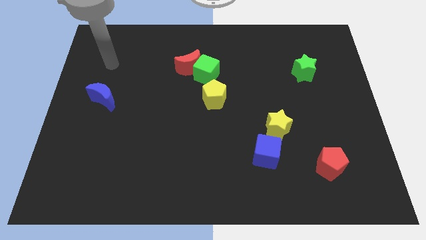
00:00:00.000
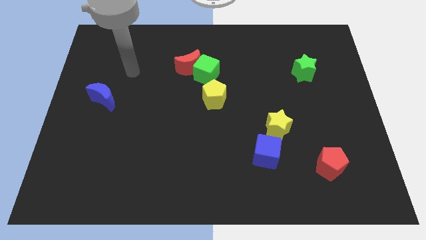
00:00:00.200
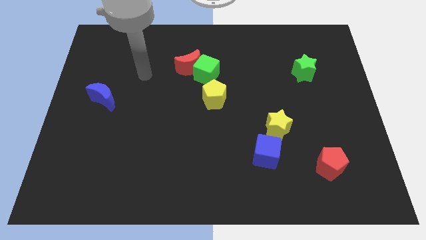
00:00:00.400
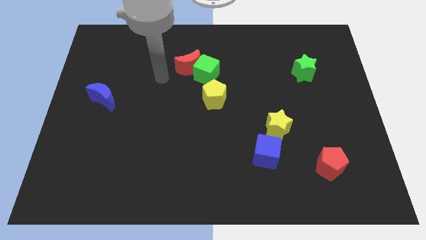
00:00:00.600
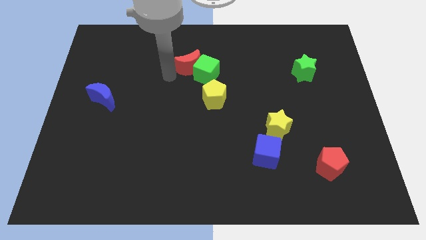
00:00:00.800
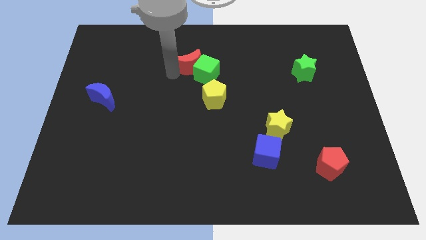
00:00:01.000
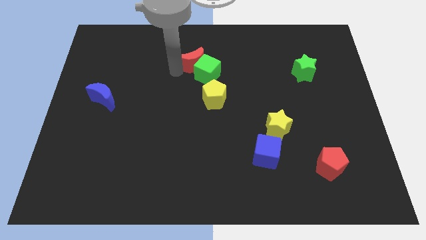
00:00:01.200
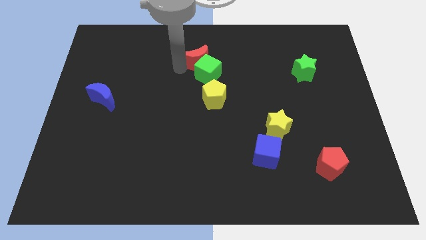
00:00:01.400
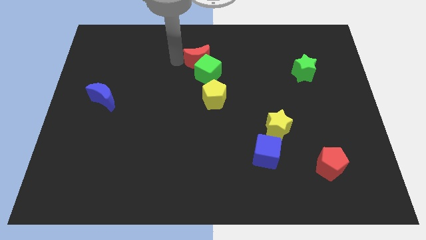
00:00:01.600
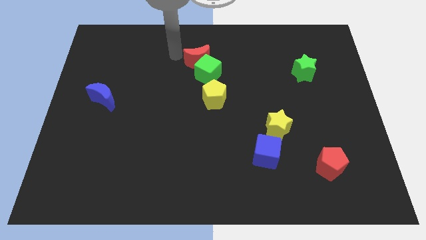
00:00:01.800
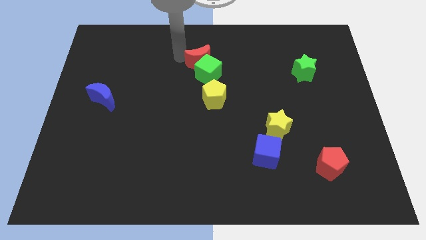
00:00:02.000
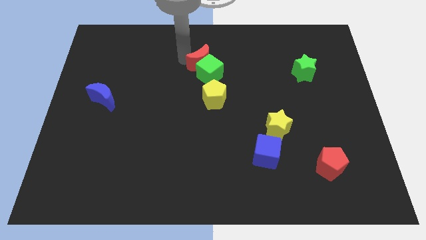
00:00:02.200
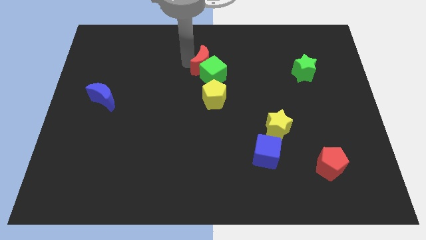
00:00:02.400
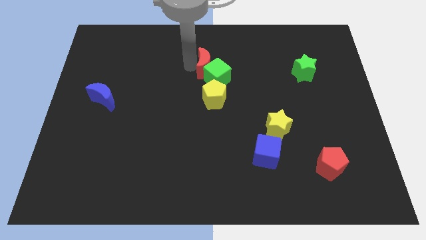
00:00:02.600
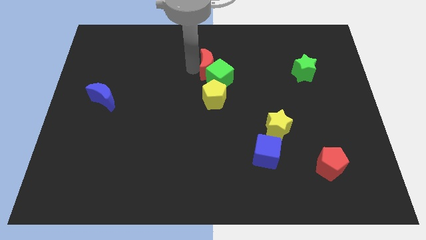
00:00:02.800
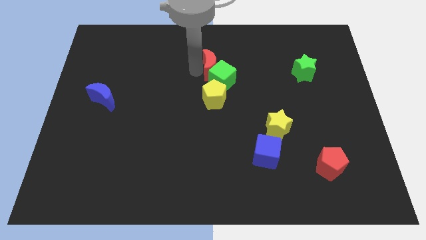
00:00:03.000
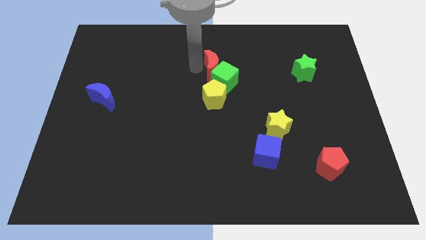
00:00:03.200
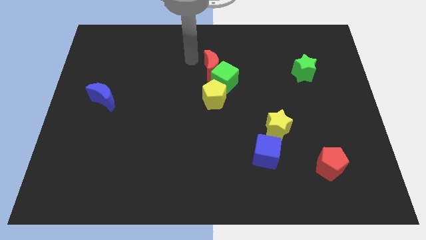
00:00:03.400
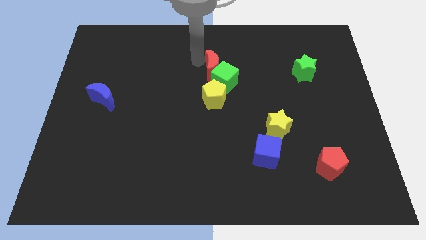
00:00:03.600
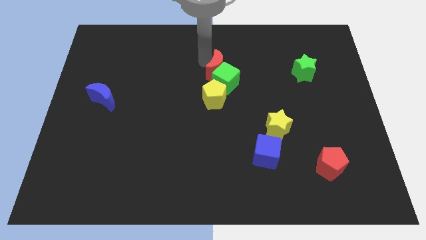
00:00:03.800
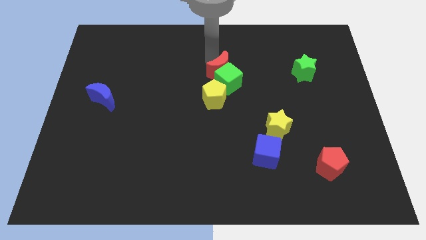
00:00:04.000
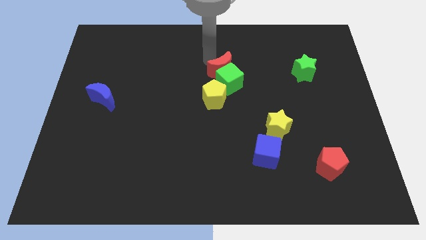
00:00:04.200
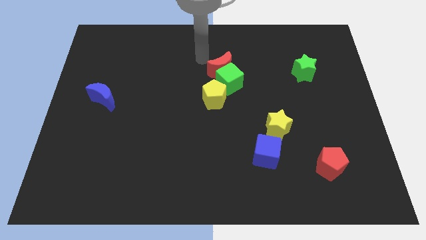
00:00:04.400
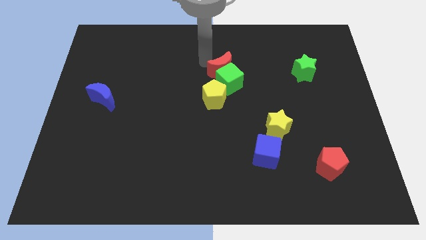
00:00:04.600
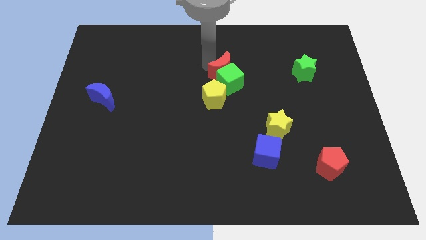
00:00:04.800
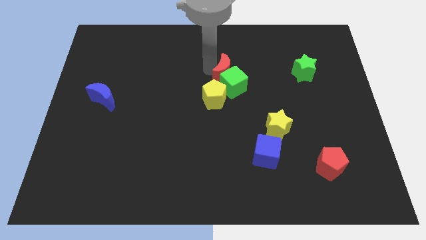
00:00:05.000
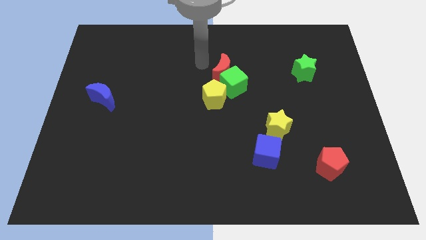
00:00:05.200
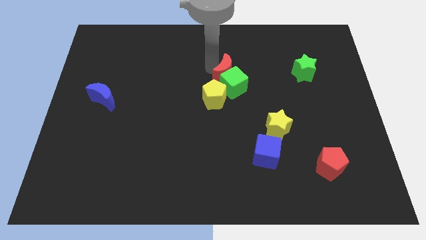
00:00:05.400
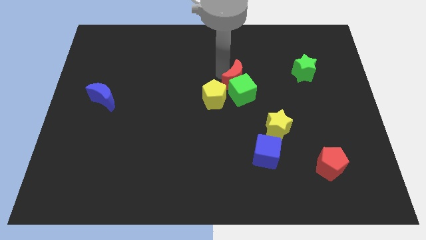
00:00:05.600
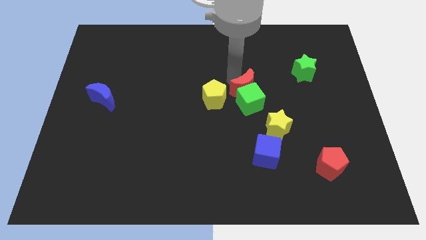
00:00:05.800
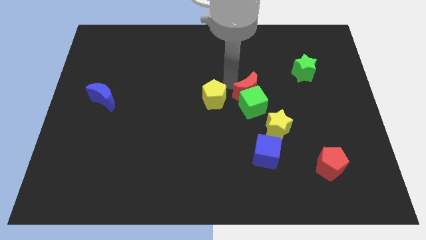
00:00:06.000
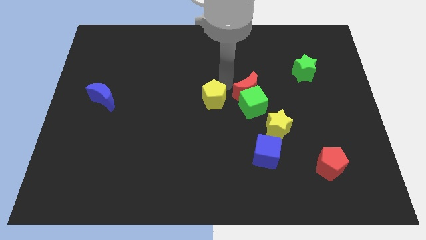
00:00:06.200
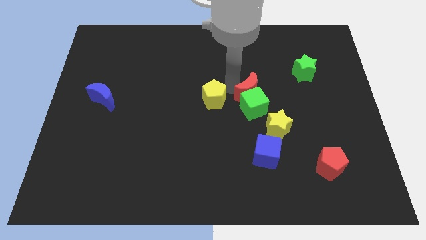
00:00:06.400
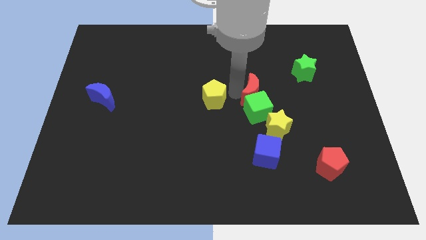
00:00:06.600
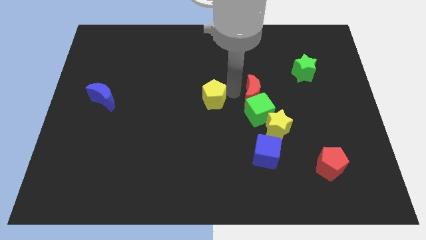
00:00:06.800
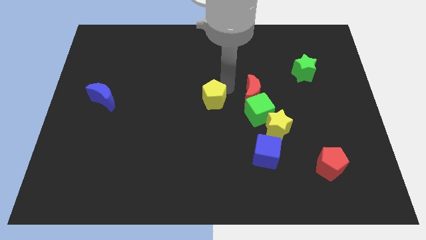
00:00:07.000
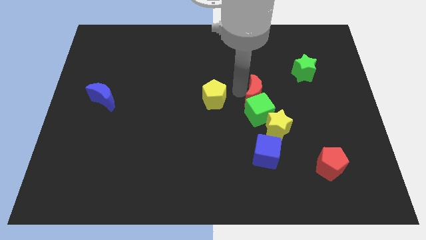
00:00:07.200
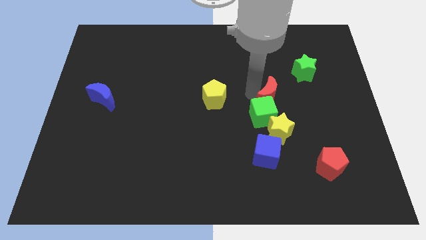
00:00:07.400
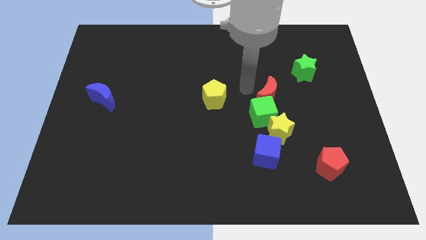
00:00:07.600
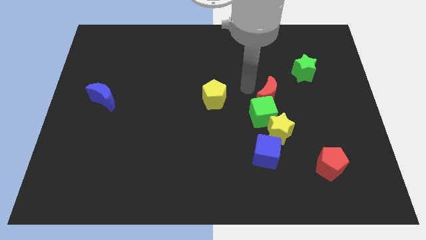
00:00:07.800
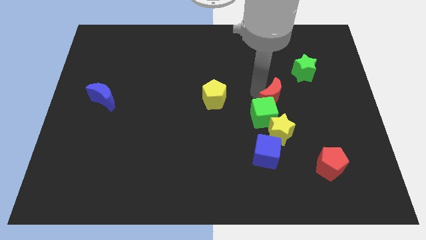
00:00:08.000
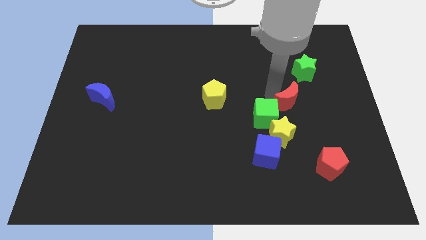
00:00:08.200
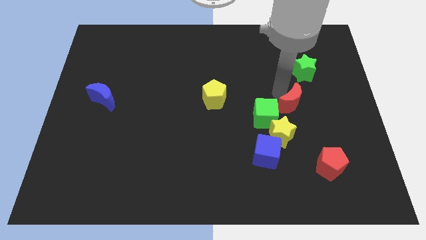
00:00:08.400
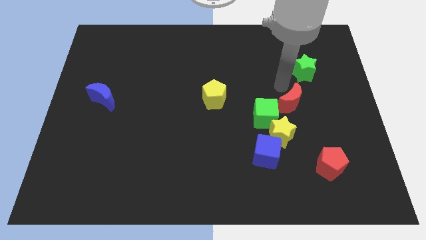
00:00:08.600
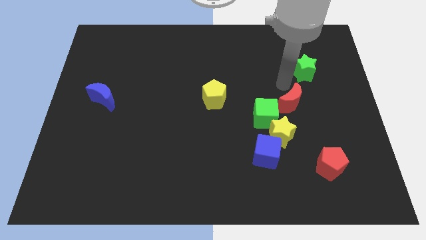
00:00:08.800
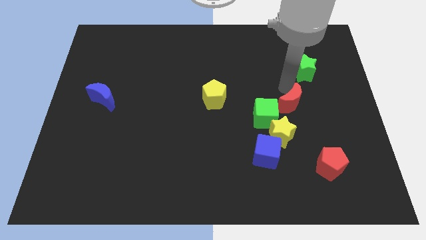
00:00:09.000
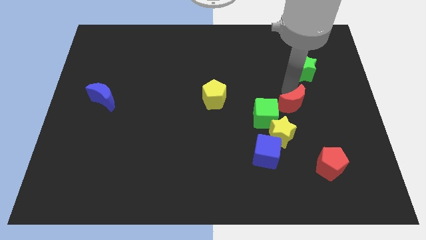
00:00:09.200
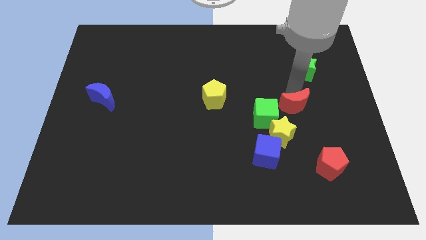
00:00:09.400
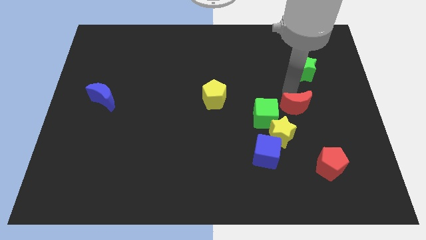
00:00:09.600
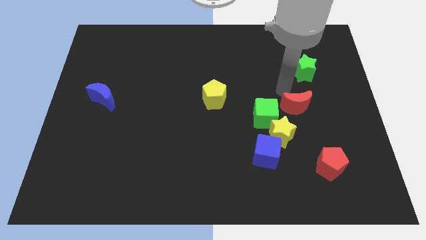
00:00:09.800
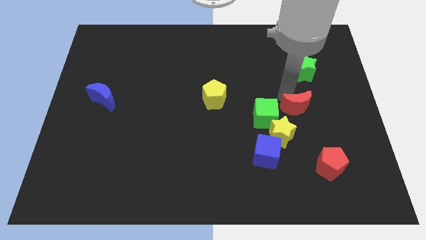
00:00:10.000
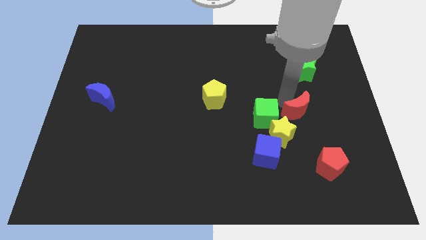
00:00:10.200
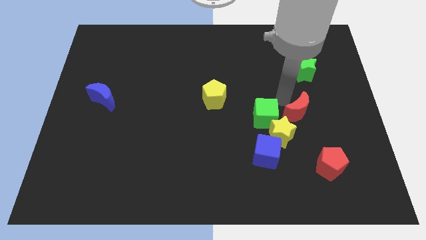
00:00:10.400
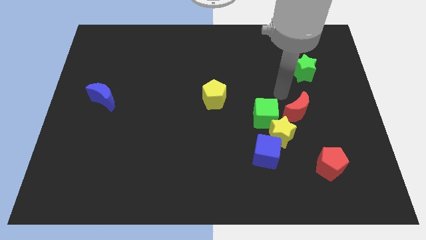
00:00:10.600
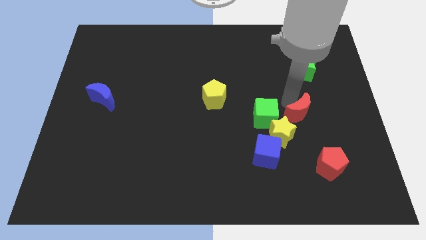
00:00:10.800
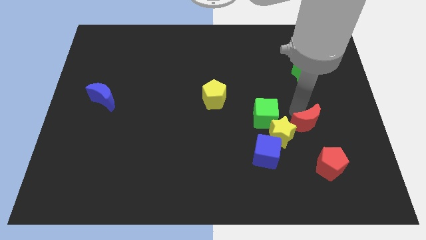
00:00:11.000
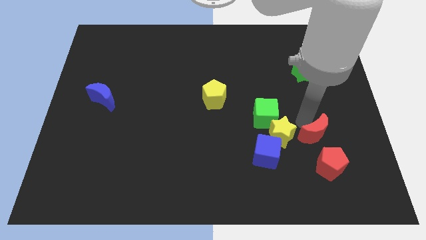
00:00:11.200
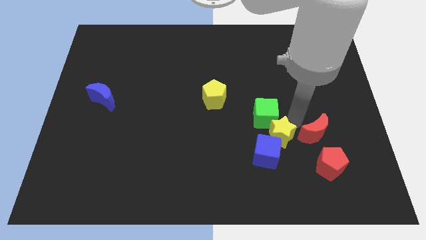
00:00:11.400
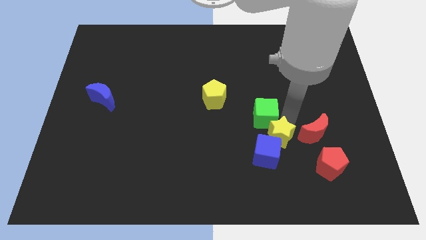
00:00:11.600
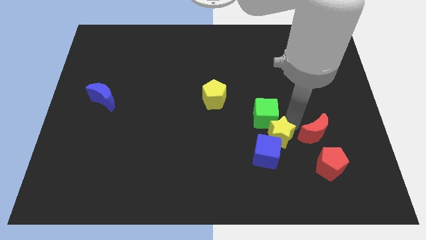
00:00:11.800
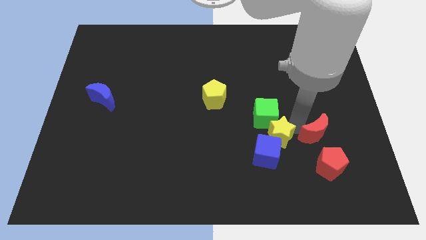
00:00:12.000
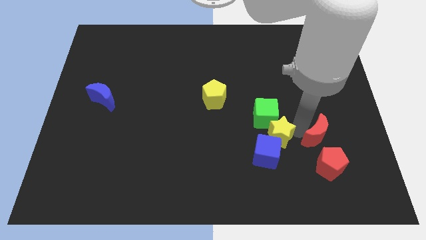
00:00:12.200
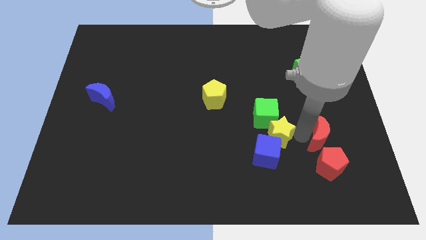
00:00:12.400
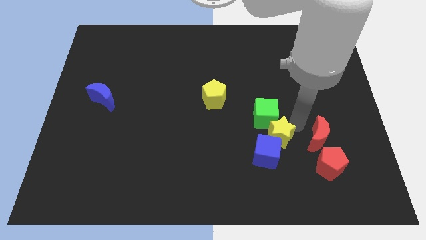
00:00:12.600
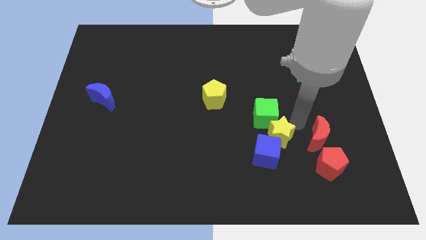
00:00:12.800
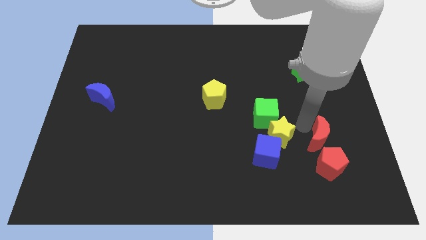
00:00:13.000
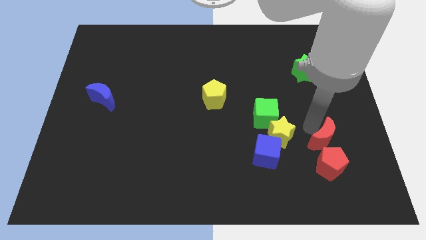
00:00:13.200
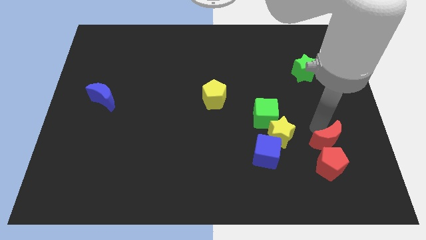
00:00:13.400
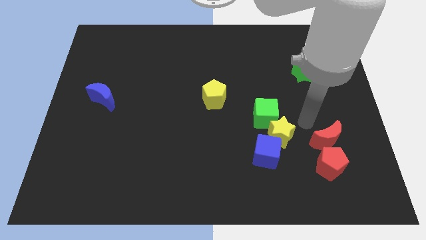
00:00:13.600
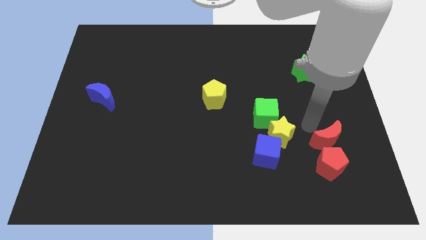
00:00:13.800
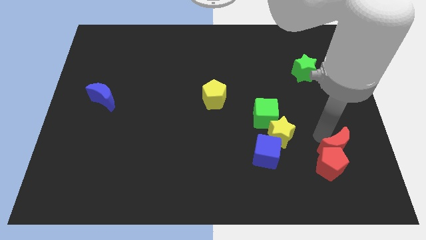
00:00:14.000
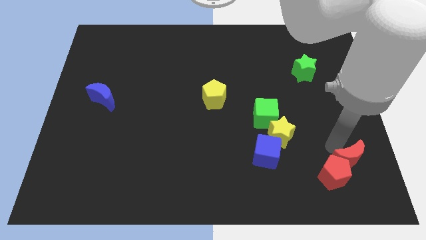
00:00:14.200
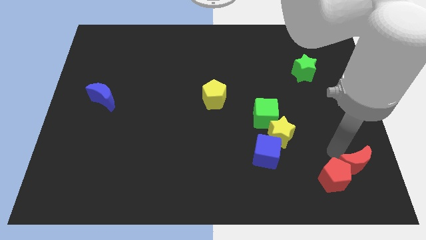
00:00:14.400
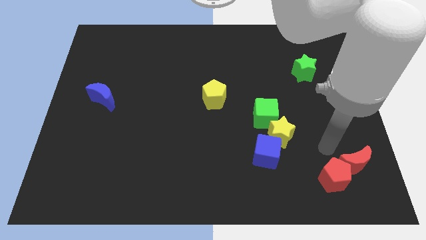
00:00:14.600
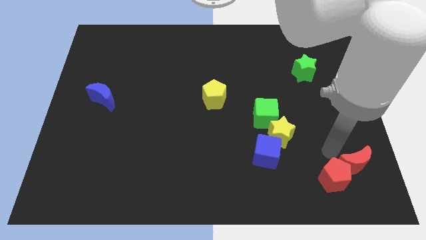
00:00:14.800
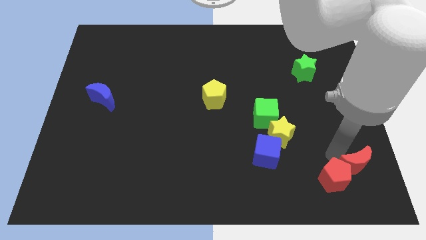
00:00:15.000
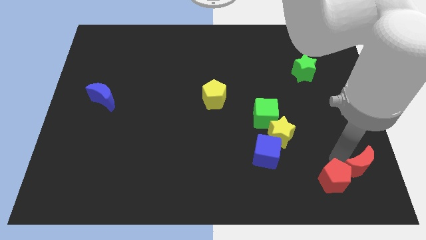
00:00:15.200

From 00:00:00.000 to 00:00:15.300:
put the red moon to the bottom right of the board
